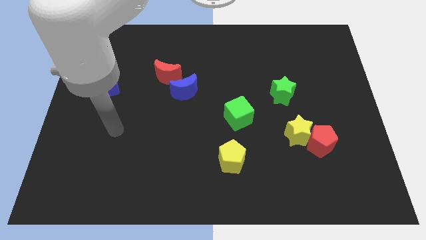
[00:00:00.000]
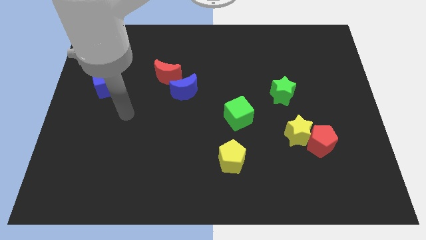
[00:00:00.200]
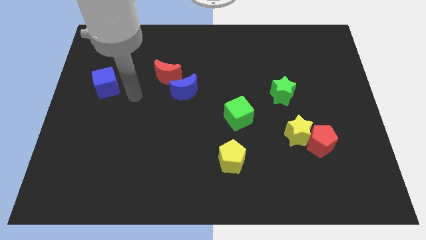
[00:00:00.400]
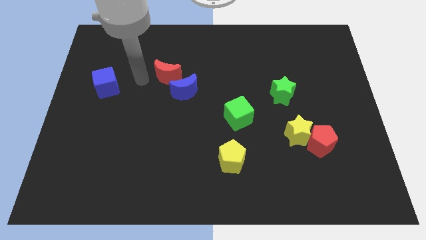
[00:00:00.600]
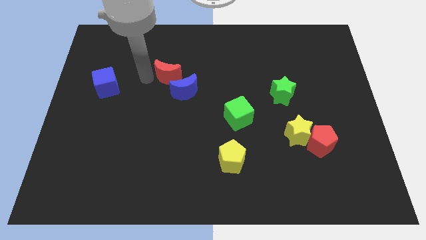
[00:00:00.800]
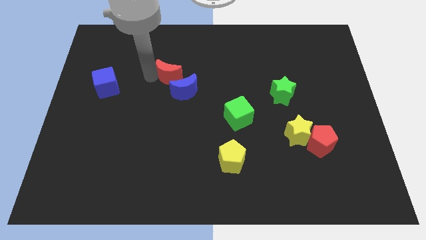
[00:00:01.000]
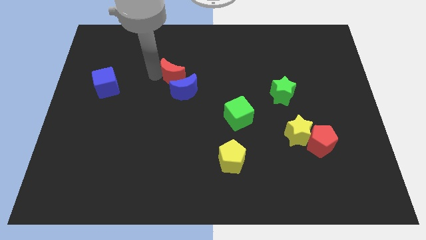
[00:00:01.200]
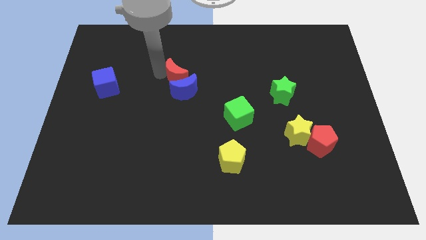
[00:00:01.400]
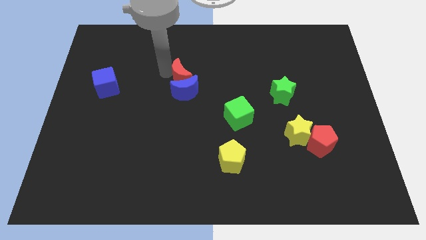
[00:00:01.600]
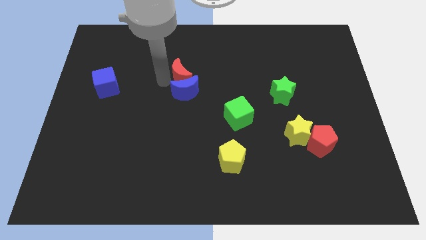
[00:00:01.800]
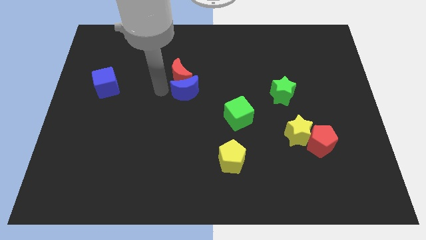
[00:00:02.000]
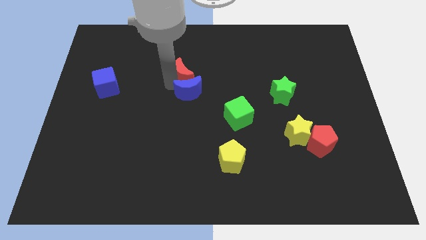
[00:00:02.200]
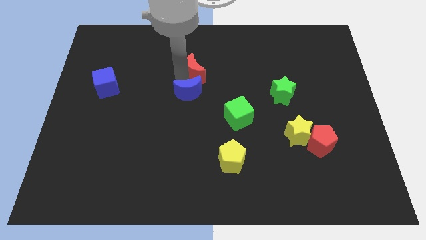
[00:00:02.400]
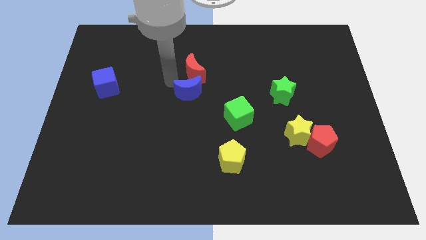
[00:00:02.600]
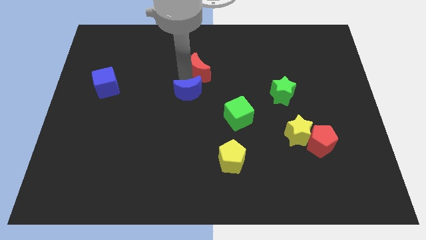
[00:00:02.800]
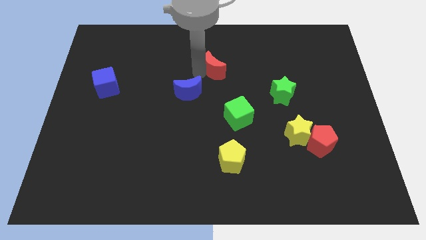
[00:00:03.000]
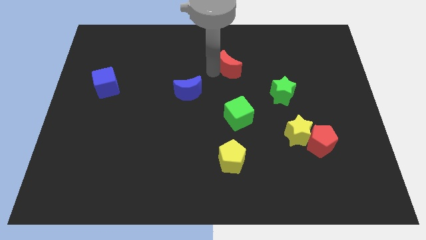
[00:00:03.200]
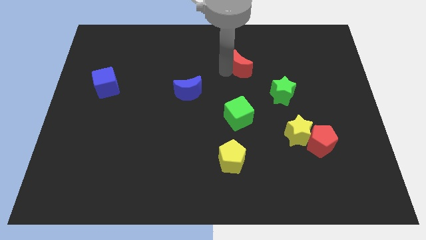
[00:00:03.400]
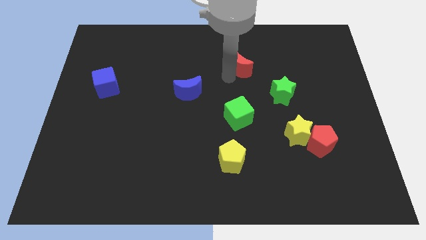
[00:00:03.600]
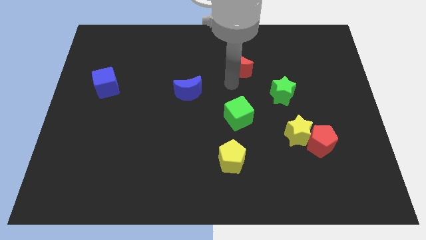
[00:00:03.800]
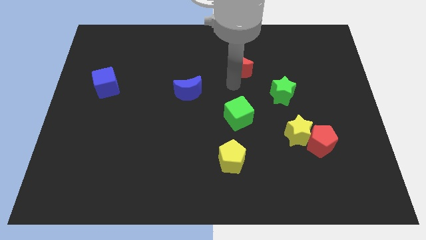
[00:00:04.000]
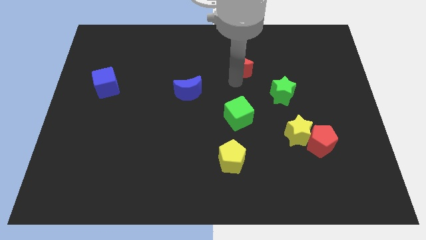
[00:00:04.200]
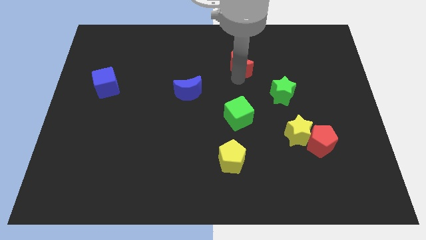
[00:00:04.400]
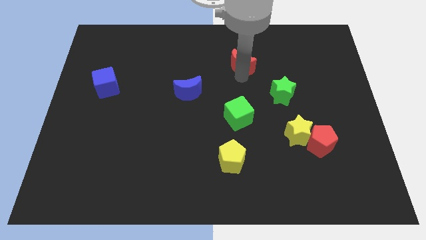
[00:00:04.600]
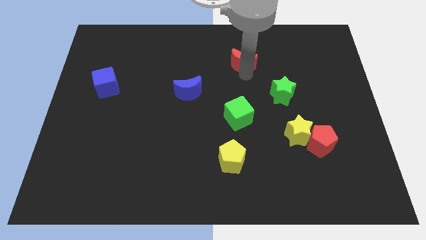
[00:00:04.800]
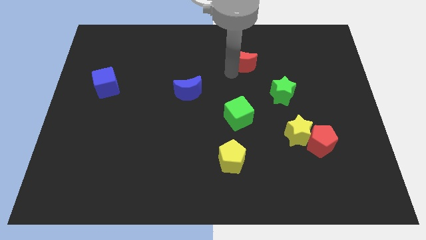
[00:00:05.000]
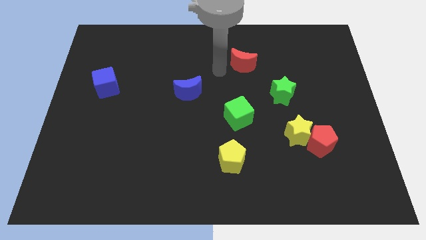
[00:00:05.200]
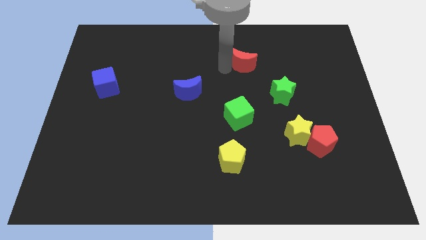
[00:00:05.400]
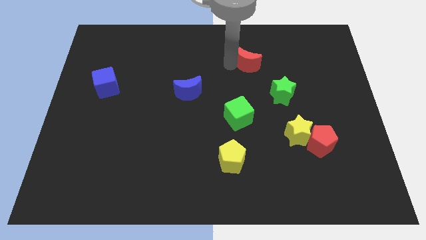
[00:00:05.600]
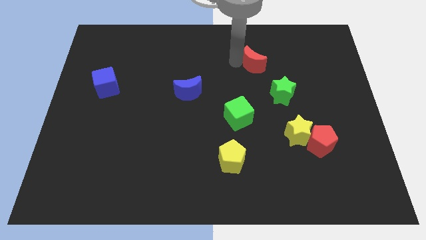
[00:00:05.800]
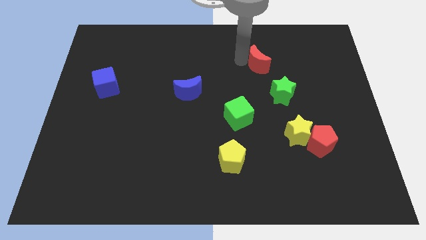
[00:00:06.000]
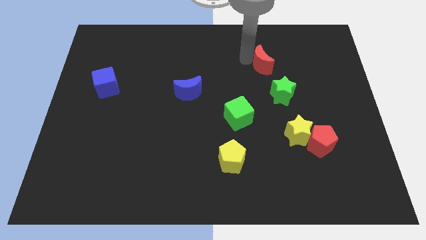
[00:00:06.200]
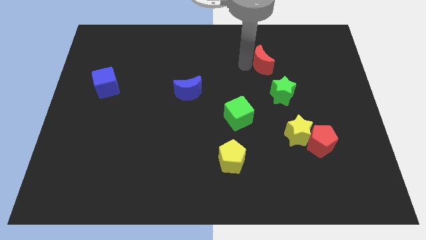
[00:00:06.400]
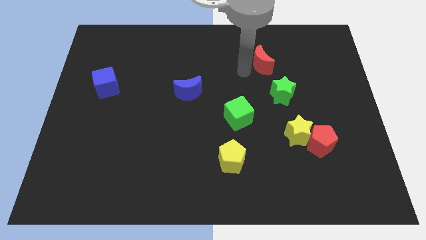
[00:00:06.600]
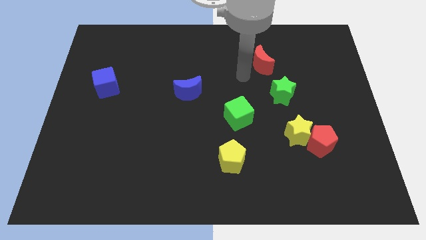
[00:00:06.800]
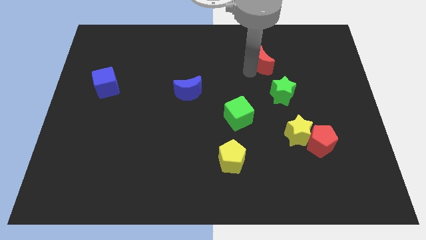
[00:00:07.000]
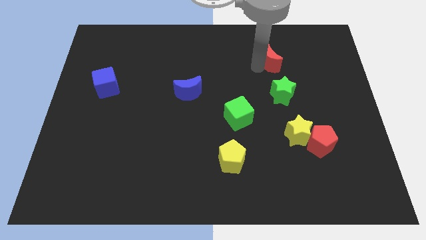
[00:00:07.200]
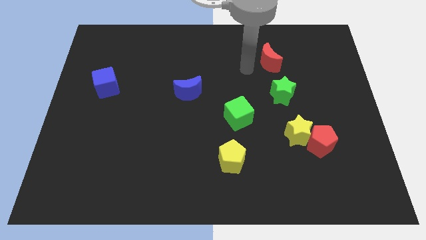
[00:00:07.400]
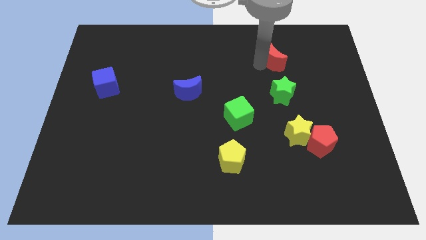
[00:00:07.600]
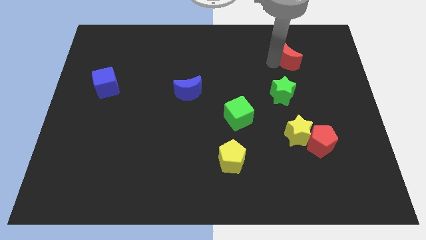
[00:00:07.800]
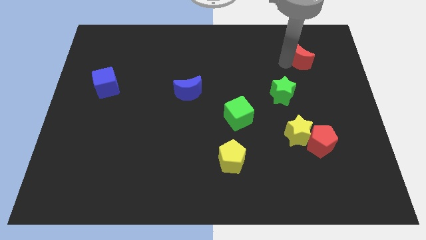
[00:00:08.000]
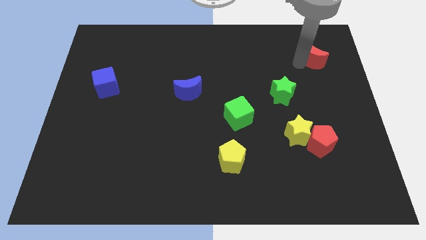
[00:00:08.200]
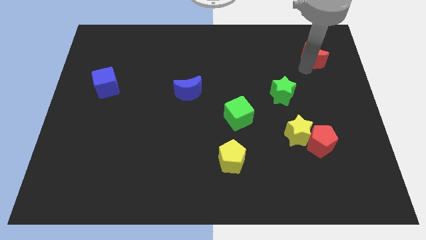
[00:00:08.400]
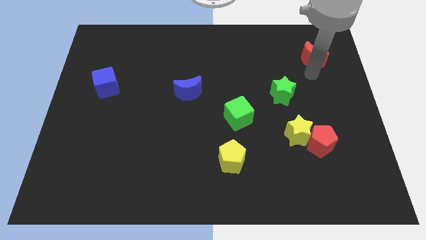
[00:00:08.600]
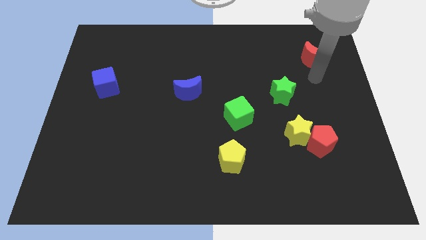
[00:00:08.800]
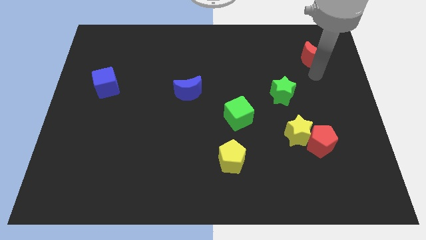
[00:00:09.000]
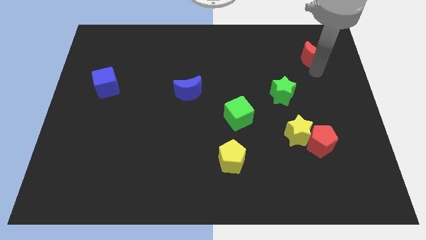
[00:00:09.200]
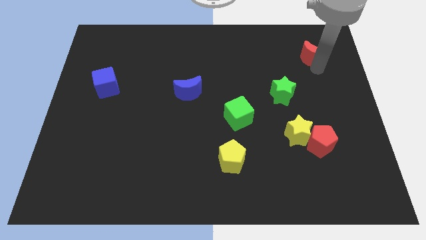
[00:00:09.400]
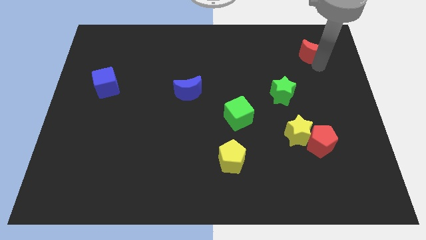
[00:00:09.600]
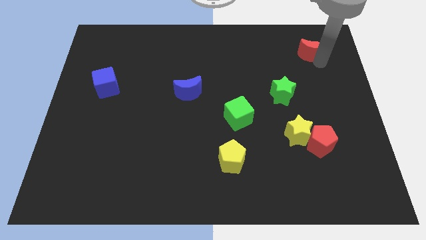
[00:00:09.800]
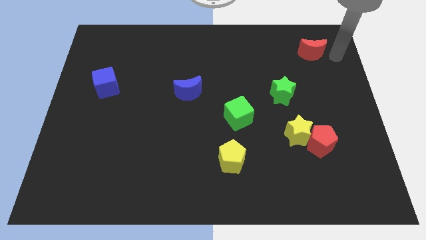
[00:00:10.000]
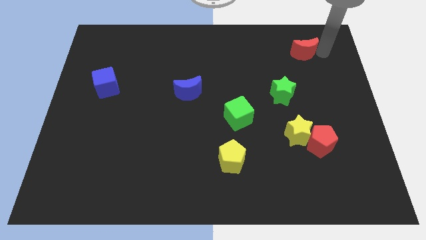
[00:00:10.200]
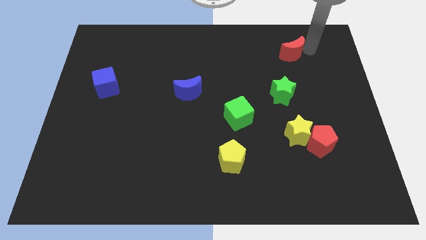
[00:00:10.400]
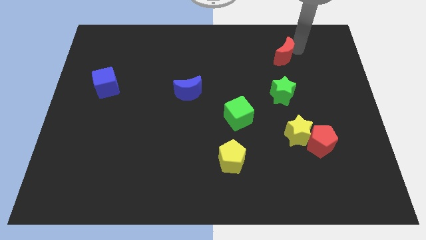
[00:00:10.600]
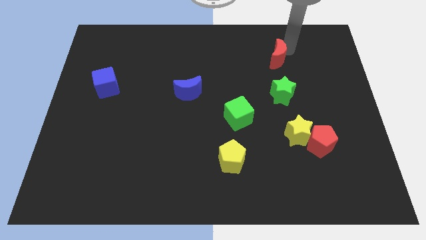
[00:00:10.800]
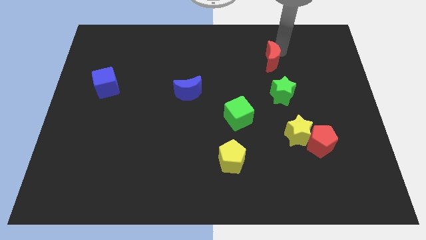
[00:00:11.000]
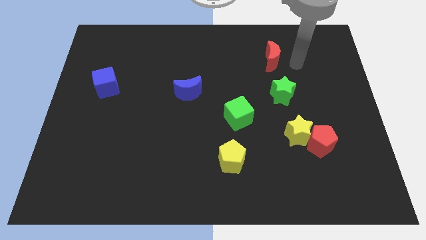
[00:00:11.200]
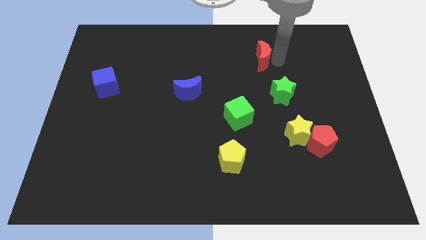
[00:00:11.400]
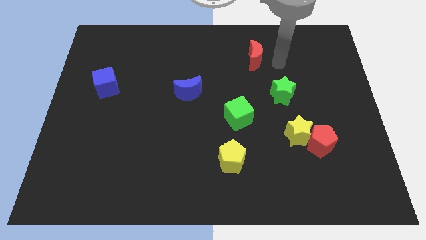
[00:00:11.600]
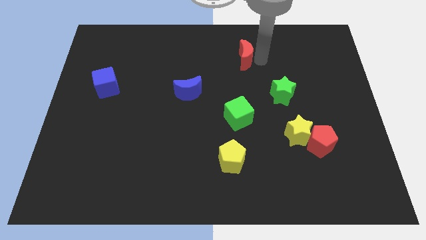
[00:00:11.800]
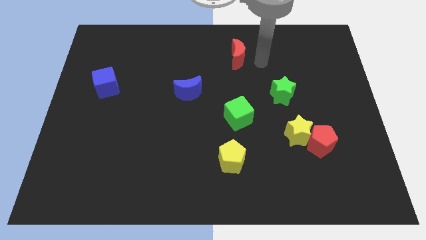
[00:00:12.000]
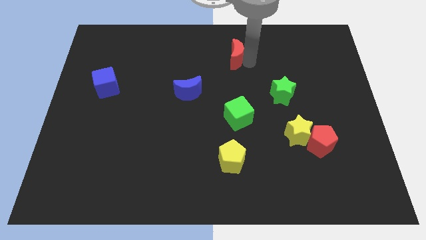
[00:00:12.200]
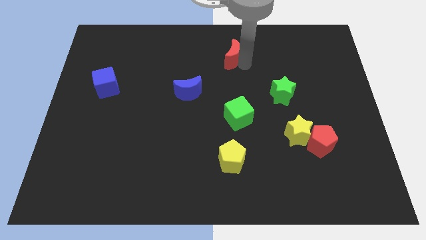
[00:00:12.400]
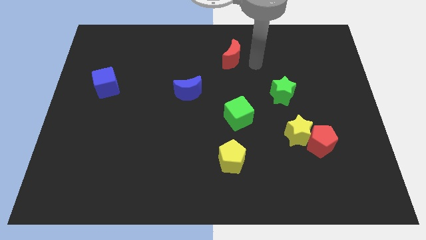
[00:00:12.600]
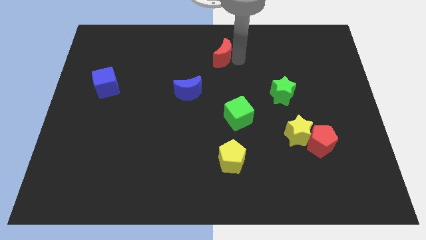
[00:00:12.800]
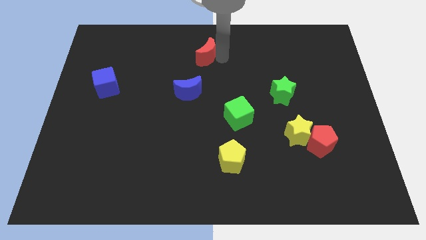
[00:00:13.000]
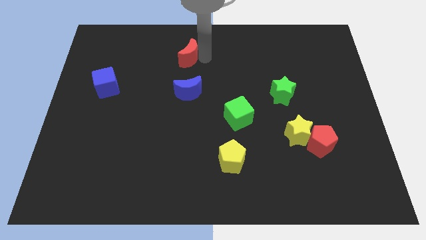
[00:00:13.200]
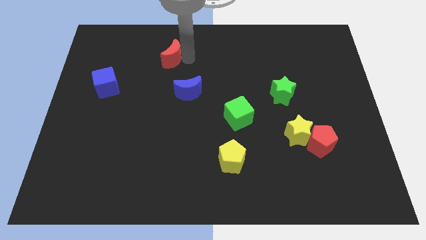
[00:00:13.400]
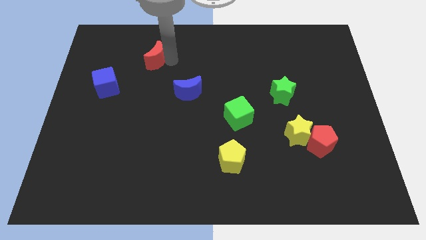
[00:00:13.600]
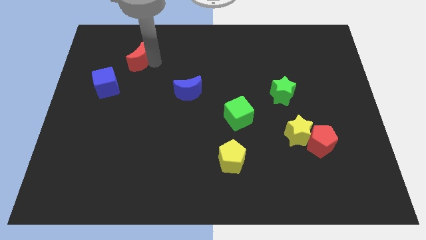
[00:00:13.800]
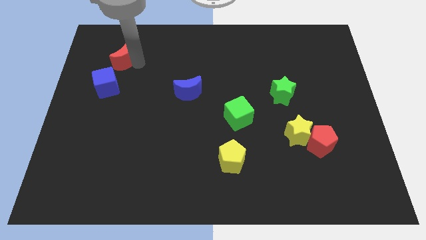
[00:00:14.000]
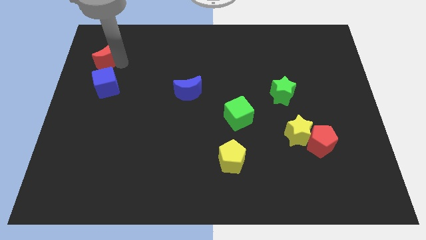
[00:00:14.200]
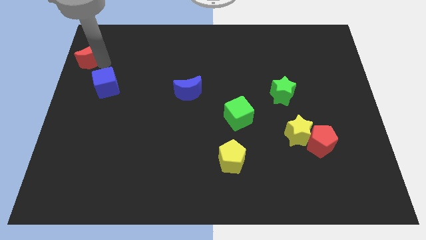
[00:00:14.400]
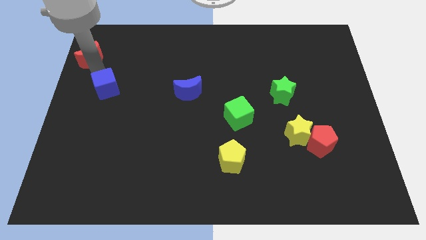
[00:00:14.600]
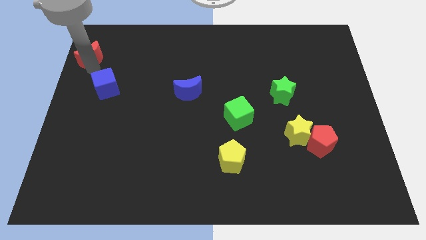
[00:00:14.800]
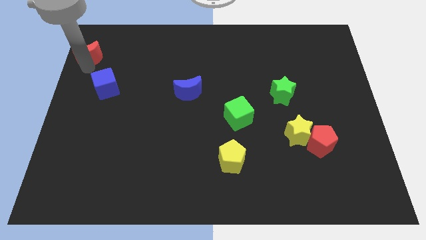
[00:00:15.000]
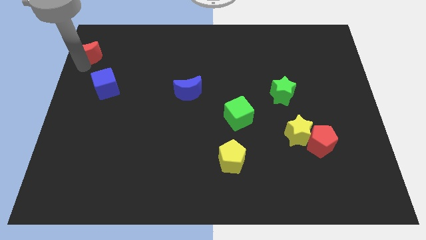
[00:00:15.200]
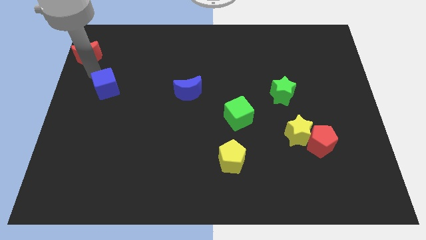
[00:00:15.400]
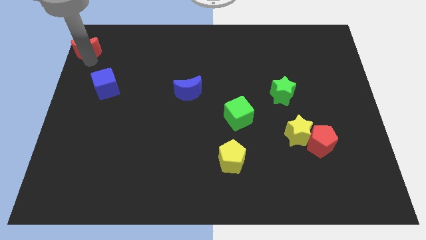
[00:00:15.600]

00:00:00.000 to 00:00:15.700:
move the red moon to the top left corner
